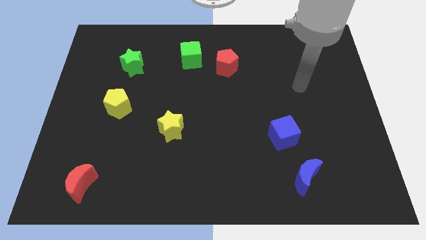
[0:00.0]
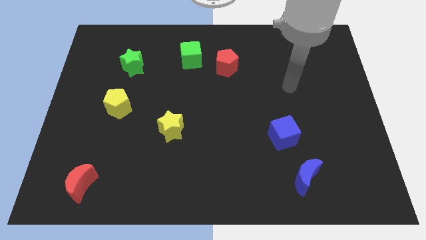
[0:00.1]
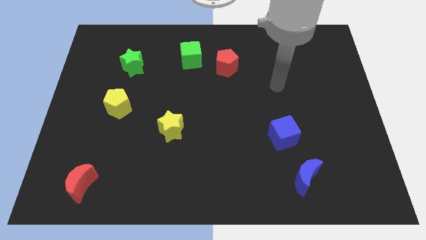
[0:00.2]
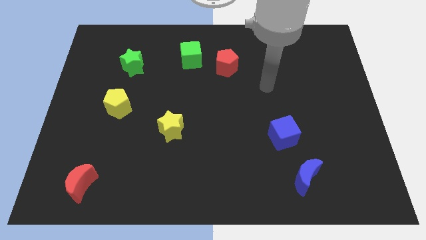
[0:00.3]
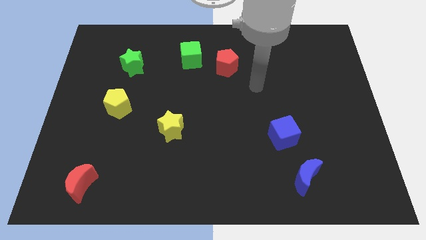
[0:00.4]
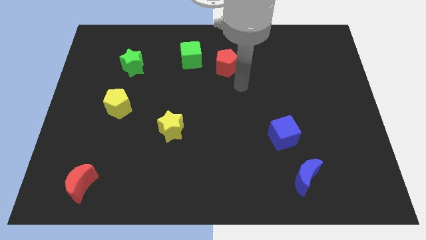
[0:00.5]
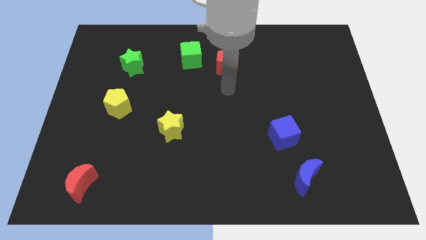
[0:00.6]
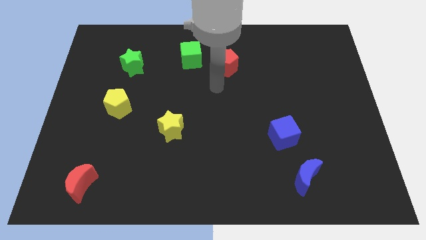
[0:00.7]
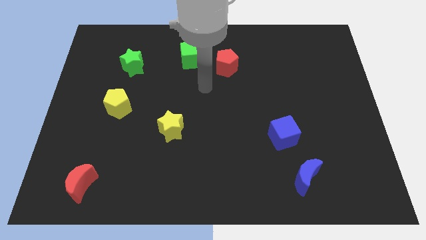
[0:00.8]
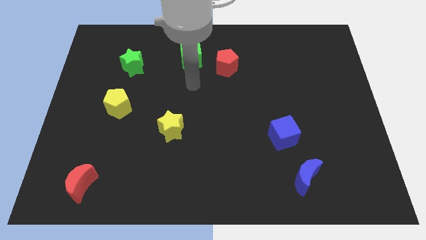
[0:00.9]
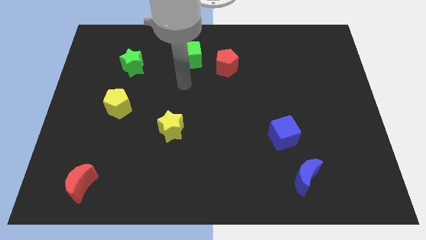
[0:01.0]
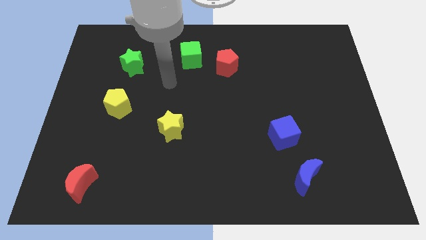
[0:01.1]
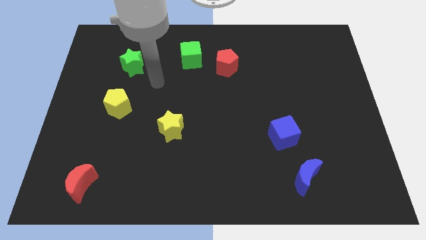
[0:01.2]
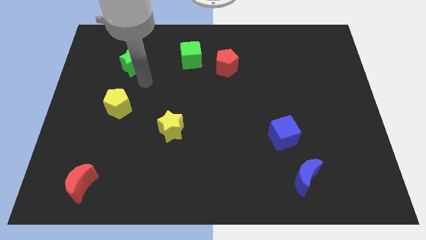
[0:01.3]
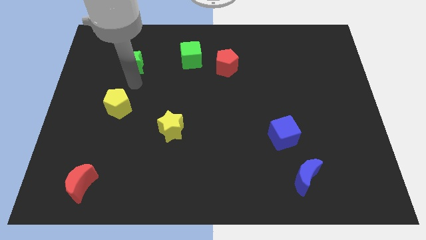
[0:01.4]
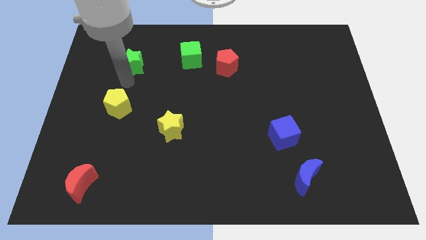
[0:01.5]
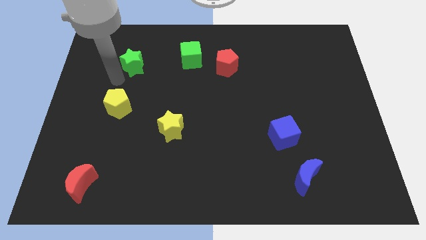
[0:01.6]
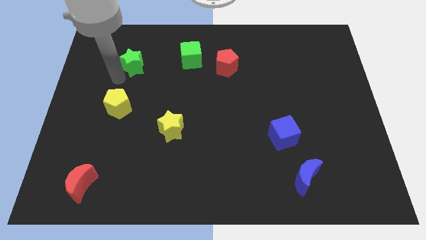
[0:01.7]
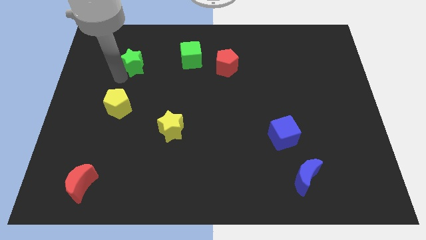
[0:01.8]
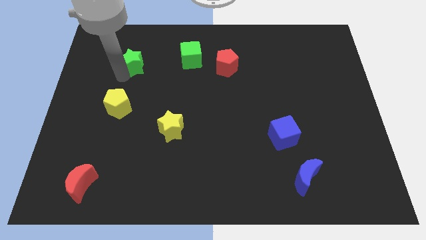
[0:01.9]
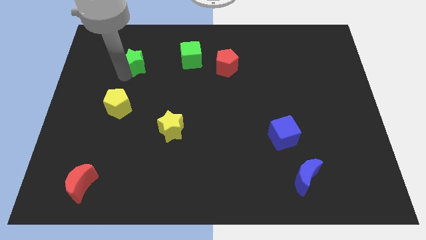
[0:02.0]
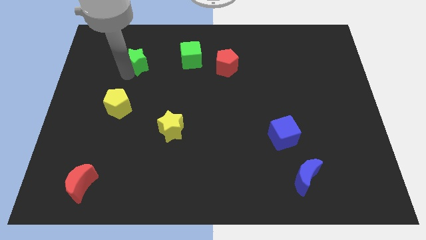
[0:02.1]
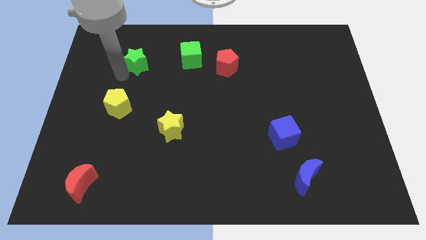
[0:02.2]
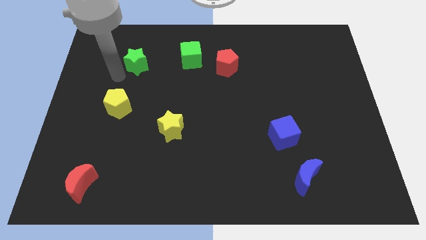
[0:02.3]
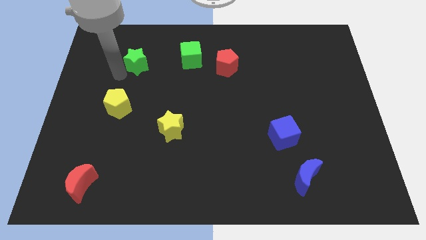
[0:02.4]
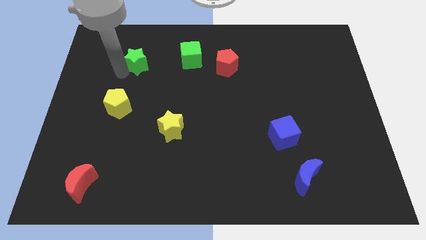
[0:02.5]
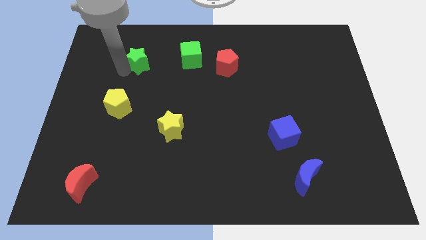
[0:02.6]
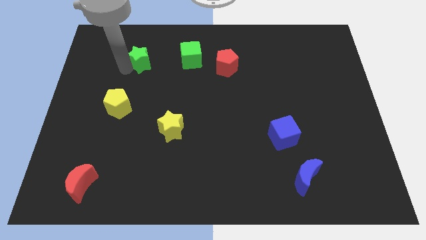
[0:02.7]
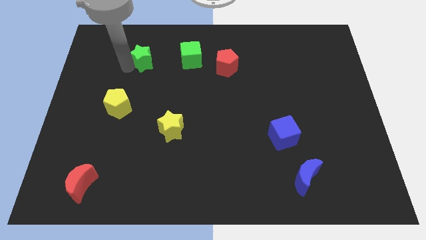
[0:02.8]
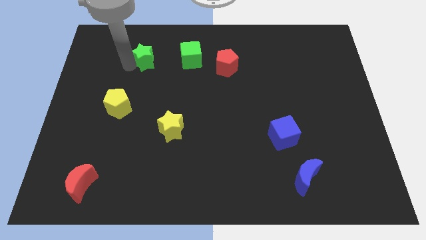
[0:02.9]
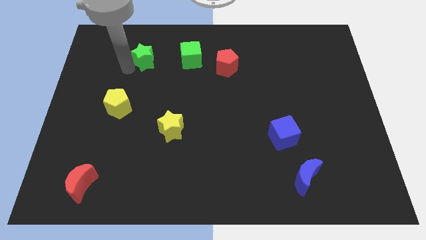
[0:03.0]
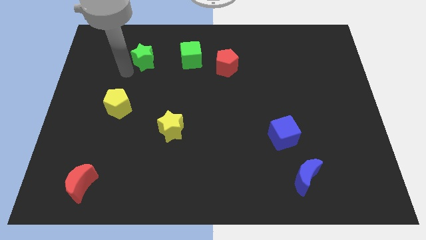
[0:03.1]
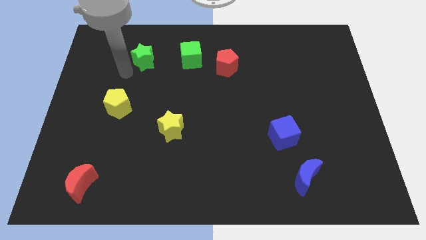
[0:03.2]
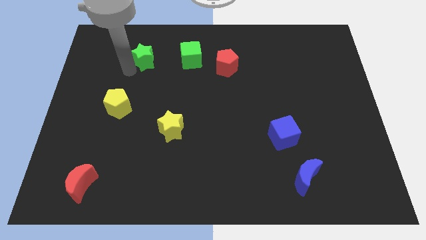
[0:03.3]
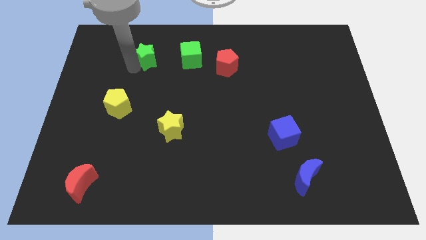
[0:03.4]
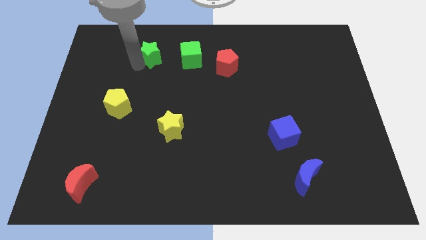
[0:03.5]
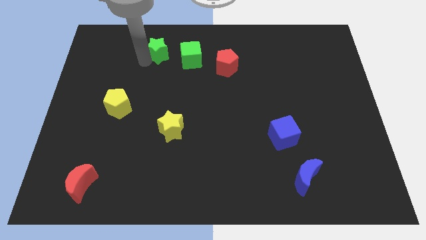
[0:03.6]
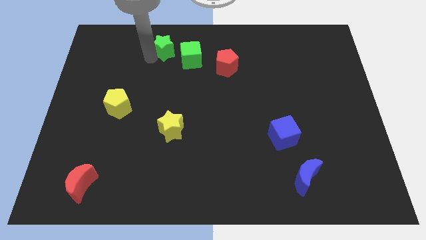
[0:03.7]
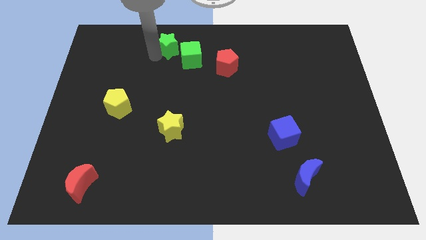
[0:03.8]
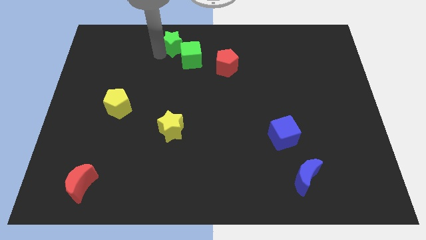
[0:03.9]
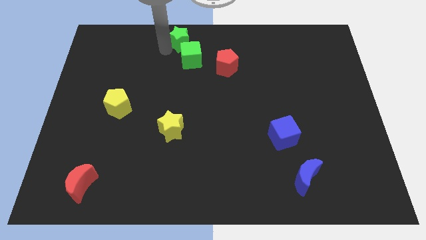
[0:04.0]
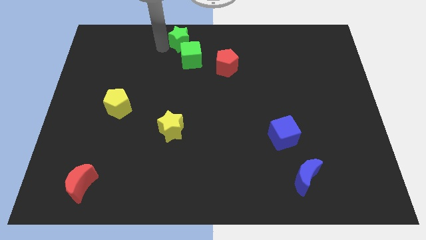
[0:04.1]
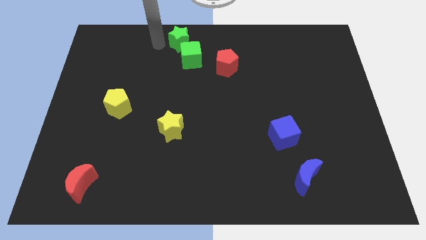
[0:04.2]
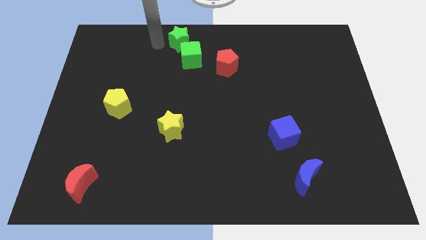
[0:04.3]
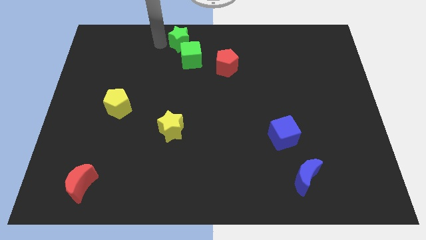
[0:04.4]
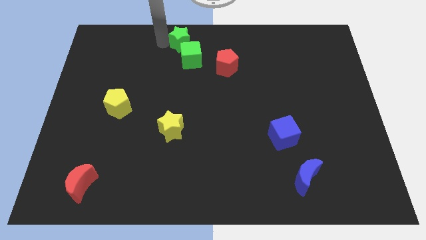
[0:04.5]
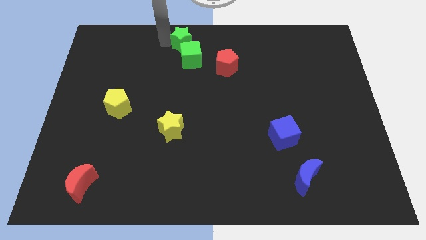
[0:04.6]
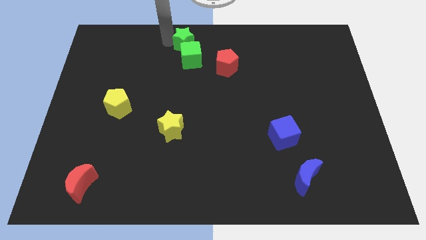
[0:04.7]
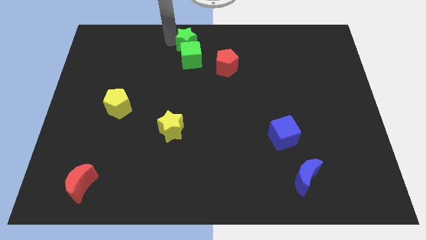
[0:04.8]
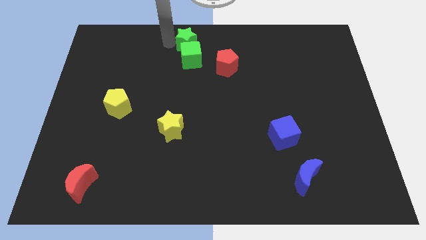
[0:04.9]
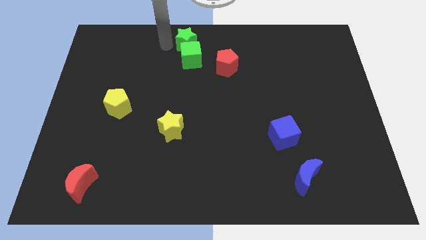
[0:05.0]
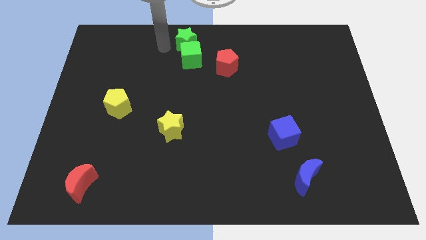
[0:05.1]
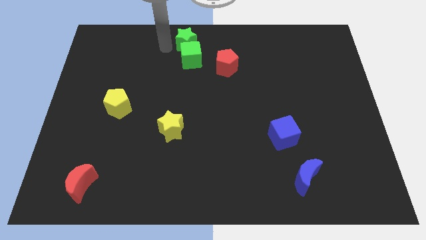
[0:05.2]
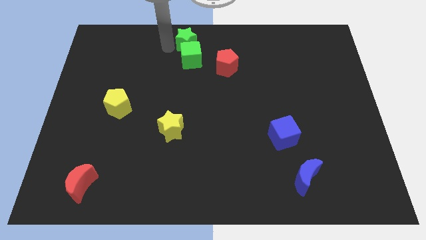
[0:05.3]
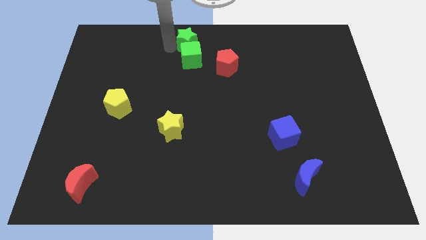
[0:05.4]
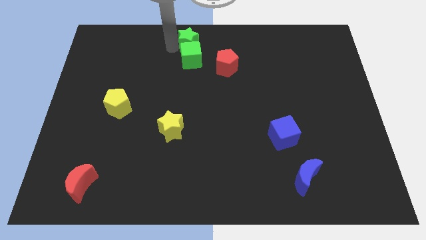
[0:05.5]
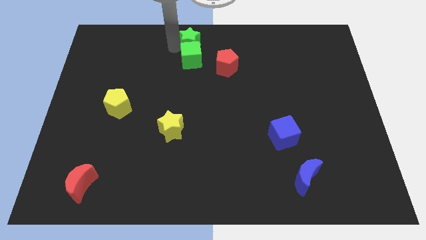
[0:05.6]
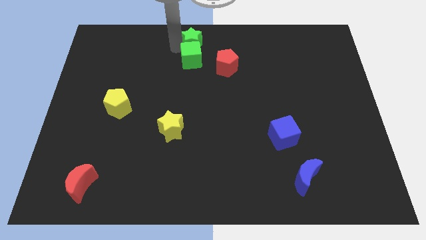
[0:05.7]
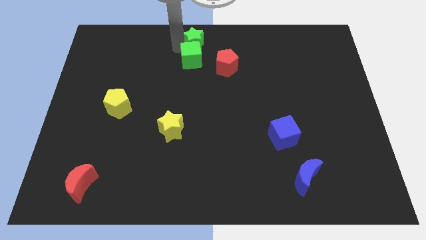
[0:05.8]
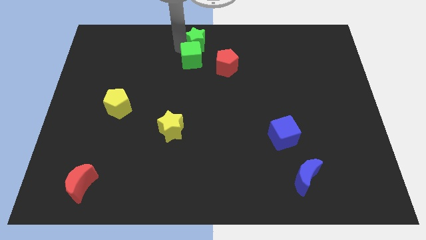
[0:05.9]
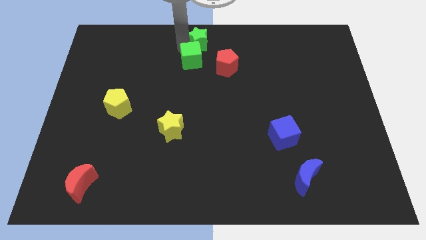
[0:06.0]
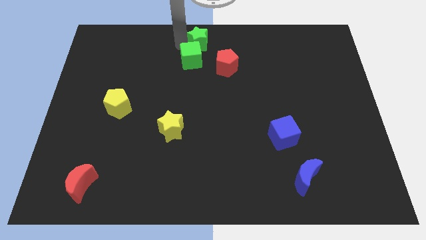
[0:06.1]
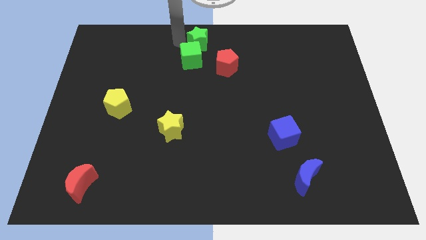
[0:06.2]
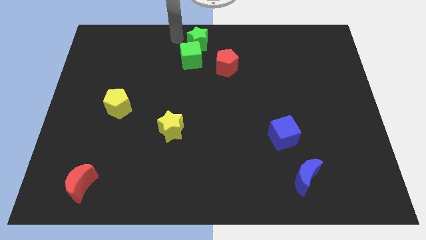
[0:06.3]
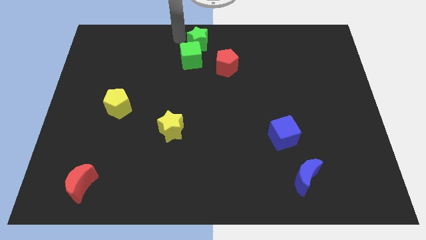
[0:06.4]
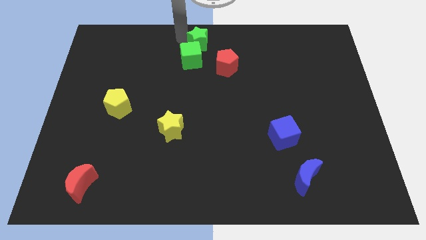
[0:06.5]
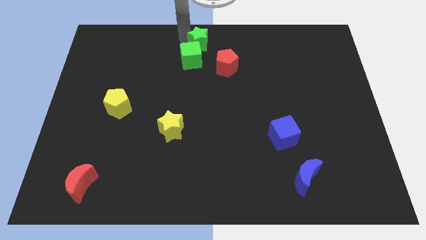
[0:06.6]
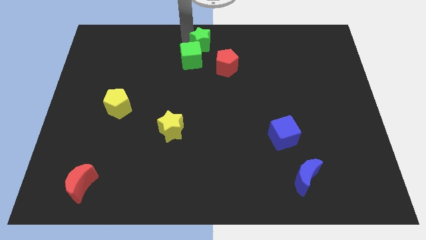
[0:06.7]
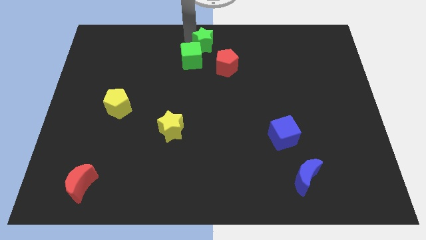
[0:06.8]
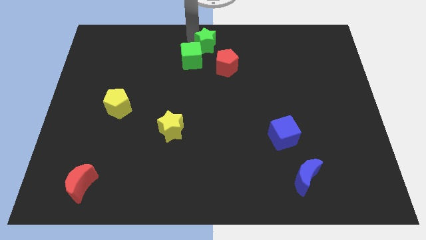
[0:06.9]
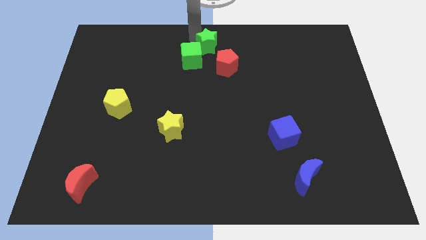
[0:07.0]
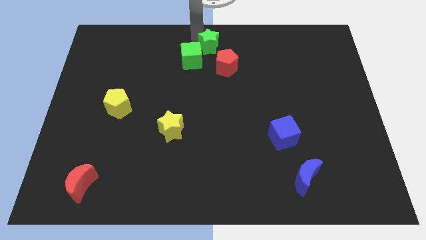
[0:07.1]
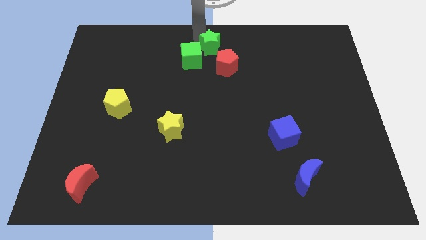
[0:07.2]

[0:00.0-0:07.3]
push the green star to the right side of the green cube

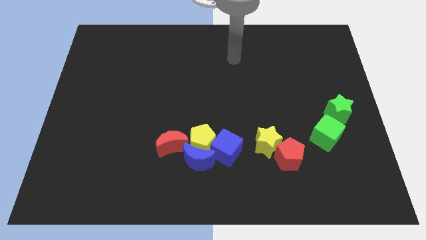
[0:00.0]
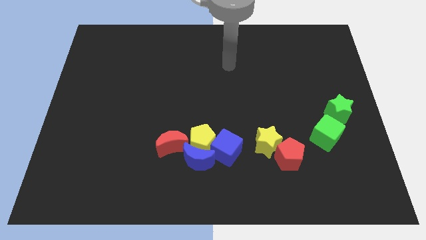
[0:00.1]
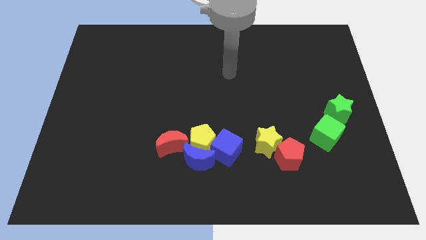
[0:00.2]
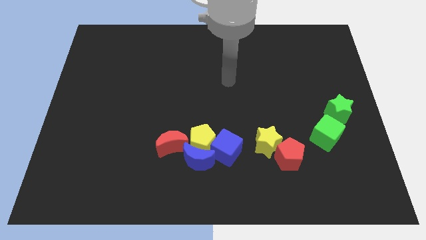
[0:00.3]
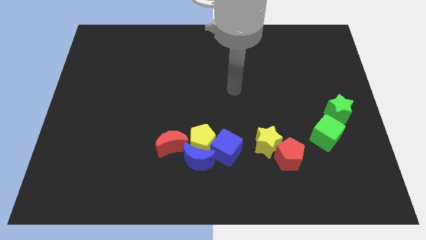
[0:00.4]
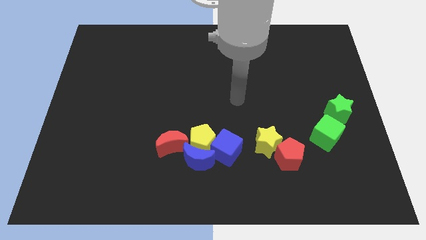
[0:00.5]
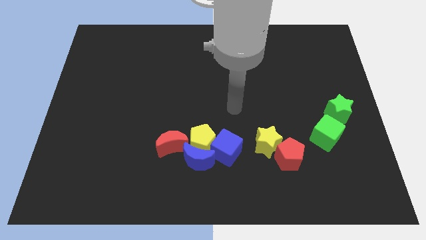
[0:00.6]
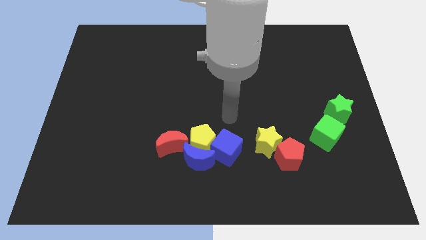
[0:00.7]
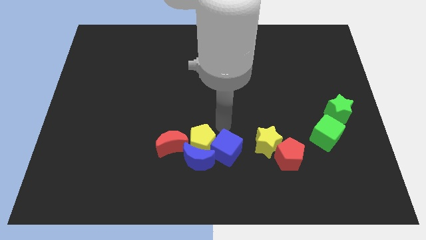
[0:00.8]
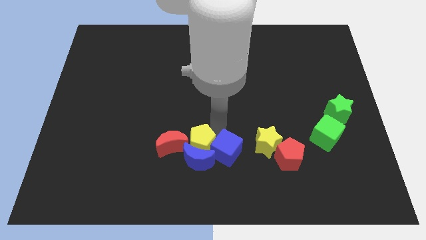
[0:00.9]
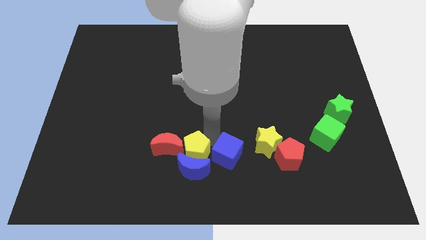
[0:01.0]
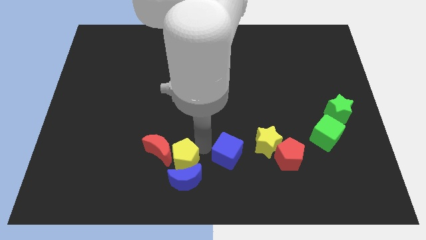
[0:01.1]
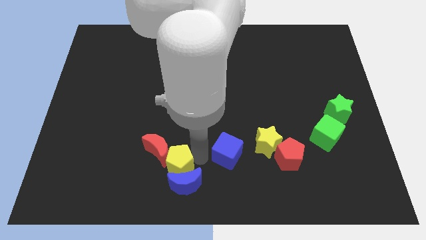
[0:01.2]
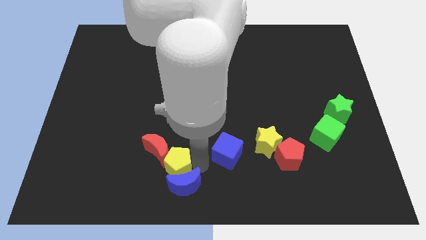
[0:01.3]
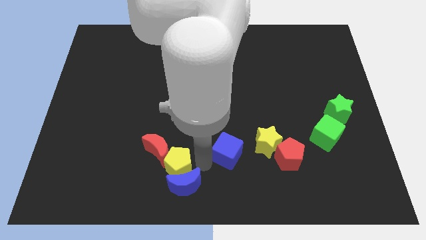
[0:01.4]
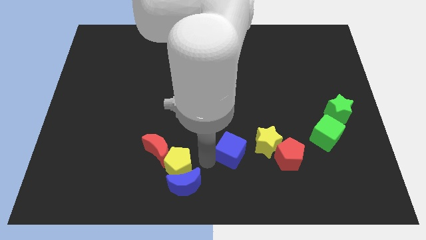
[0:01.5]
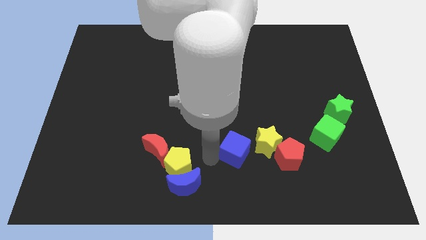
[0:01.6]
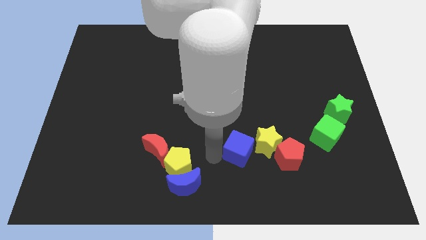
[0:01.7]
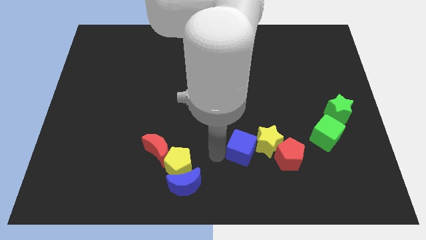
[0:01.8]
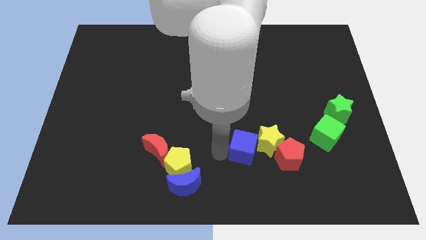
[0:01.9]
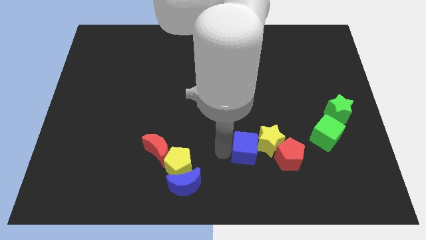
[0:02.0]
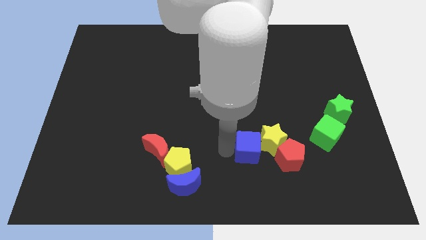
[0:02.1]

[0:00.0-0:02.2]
slide the blue cube to the top left of the red pentagon
